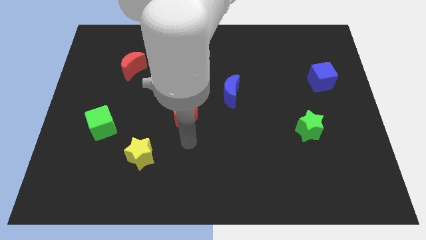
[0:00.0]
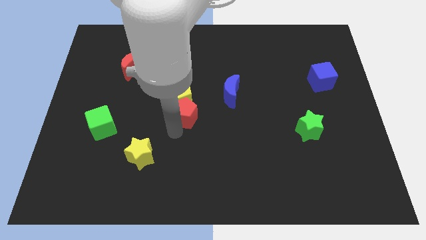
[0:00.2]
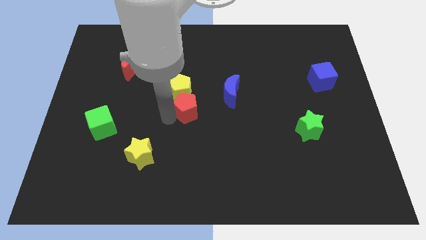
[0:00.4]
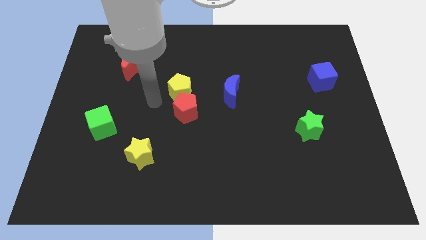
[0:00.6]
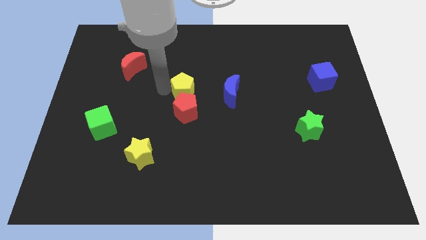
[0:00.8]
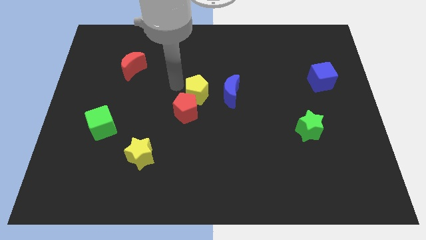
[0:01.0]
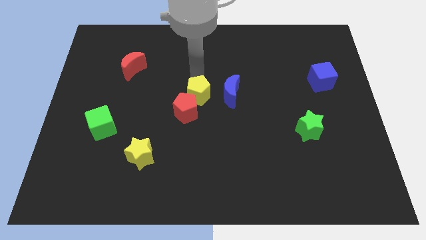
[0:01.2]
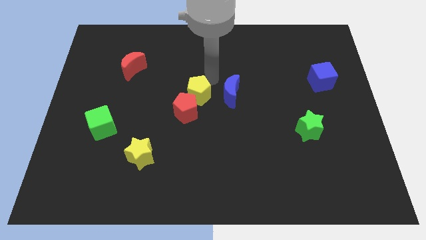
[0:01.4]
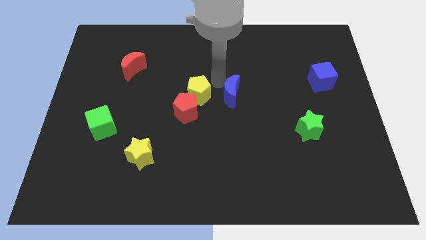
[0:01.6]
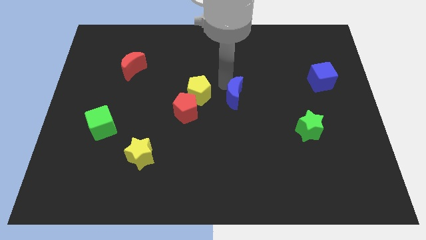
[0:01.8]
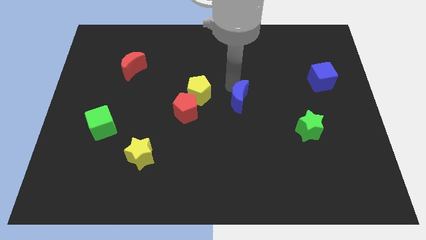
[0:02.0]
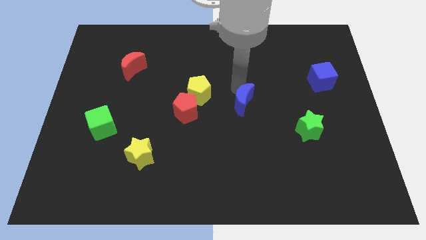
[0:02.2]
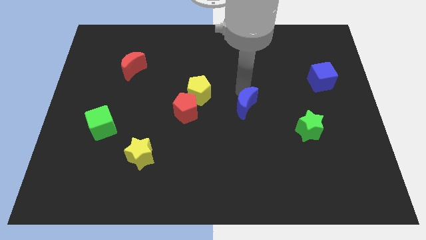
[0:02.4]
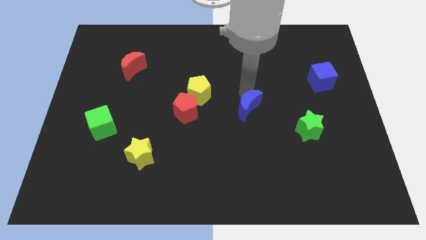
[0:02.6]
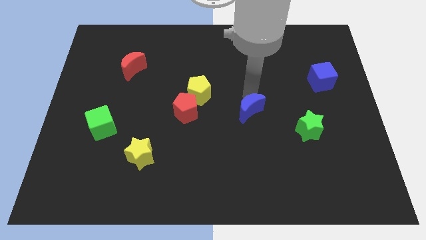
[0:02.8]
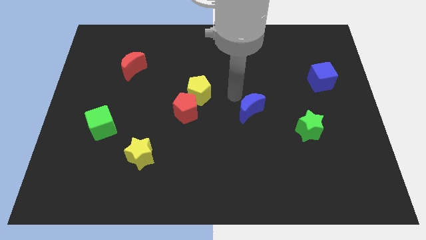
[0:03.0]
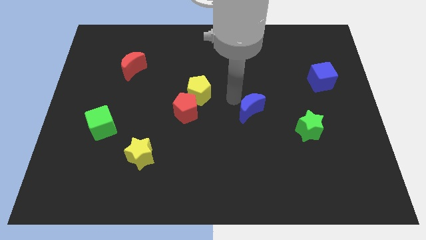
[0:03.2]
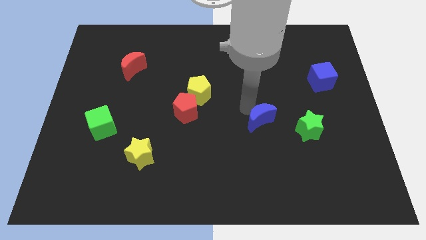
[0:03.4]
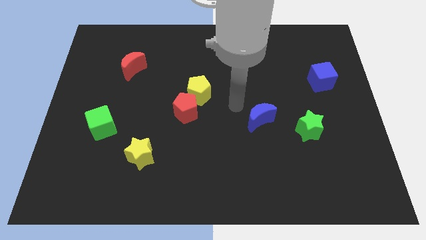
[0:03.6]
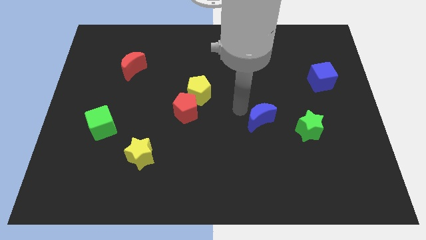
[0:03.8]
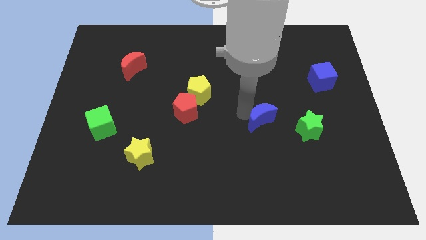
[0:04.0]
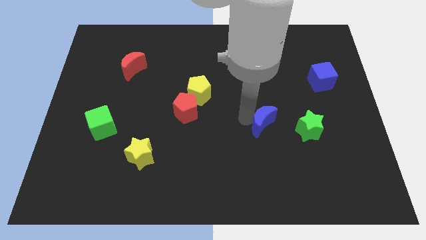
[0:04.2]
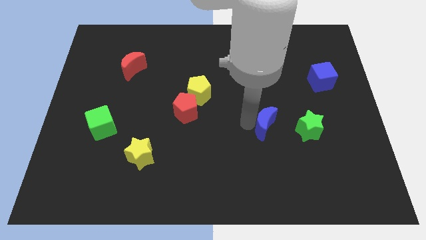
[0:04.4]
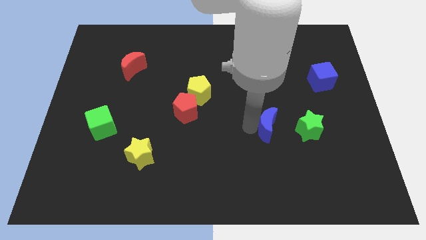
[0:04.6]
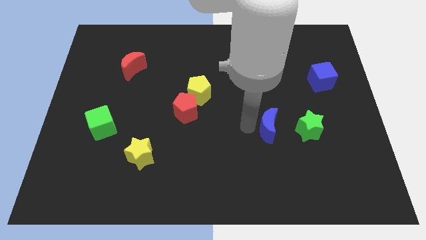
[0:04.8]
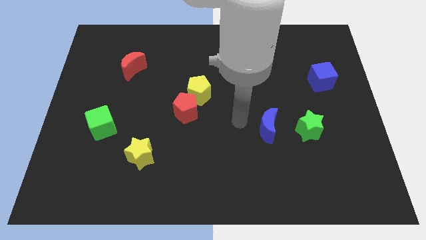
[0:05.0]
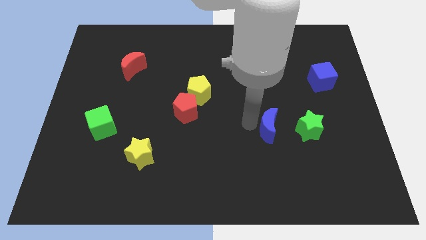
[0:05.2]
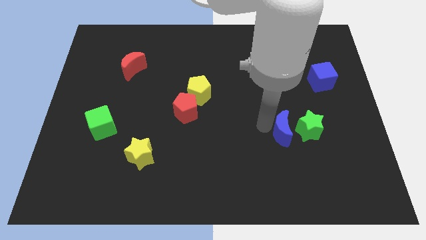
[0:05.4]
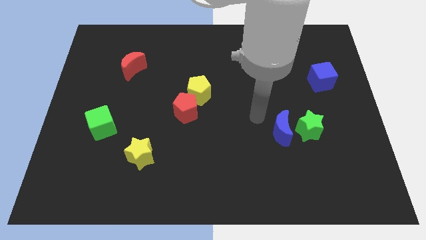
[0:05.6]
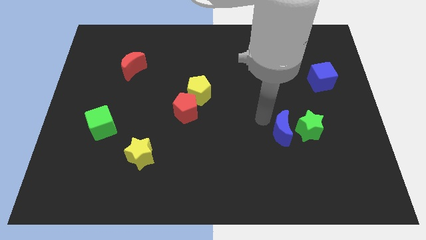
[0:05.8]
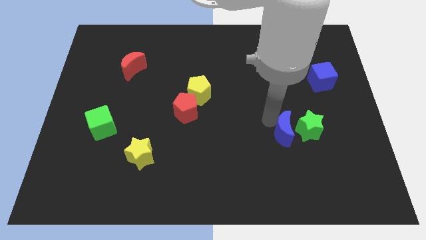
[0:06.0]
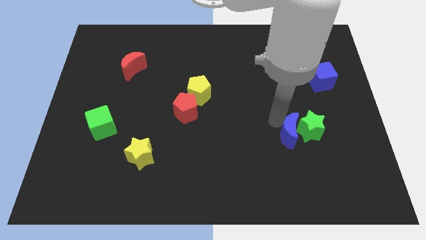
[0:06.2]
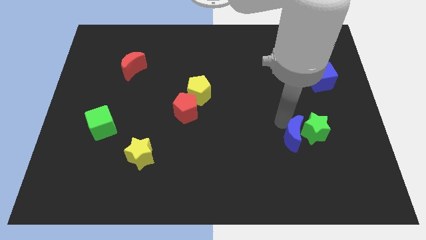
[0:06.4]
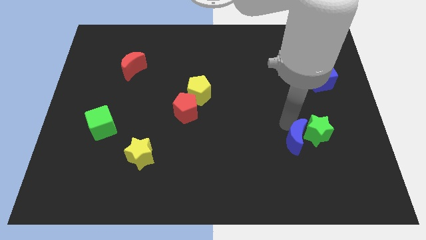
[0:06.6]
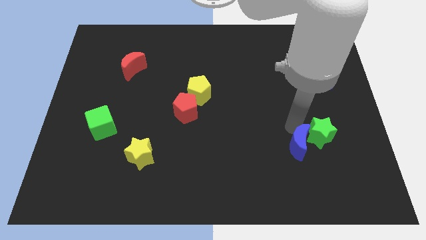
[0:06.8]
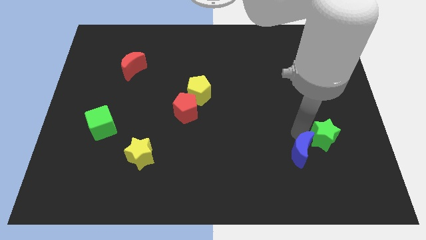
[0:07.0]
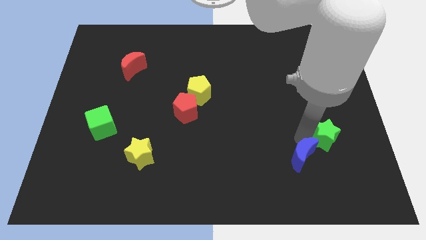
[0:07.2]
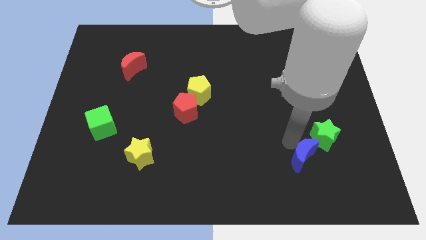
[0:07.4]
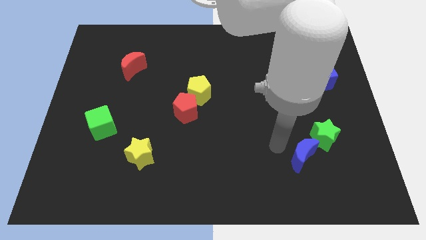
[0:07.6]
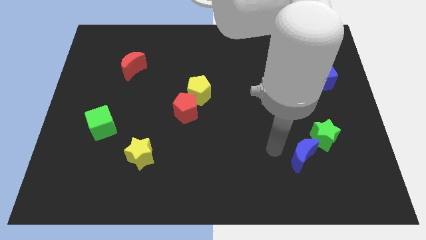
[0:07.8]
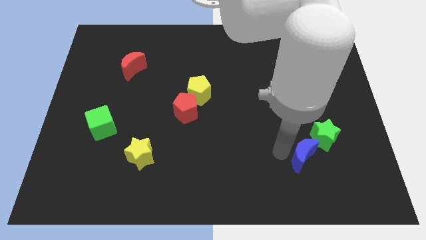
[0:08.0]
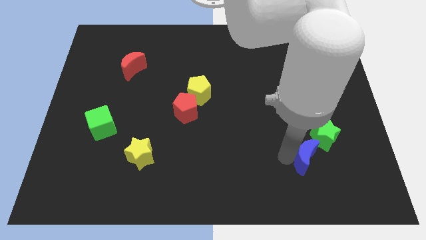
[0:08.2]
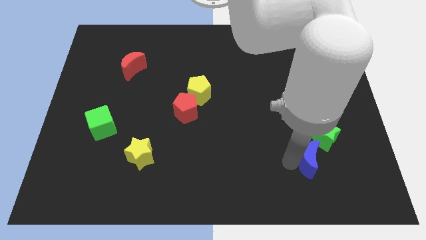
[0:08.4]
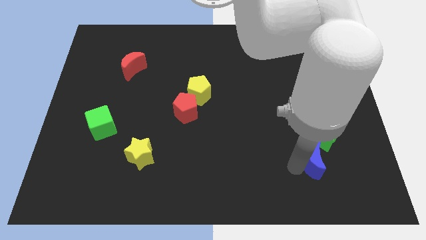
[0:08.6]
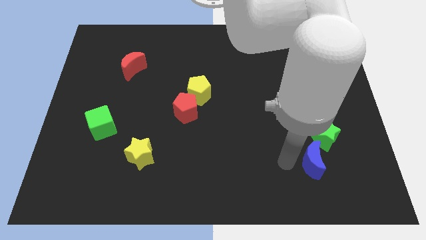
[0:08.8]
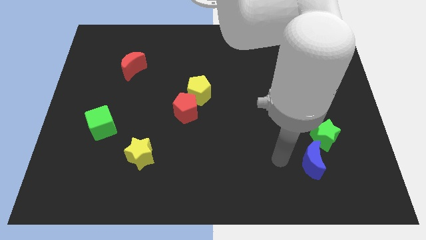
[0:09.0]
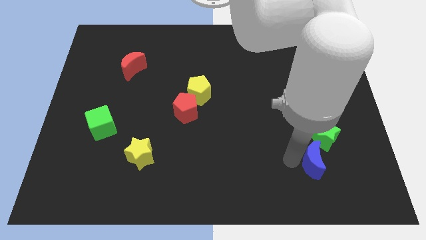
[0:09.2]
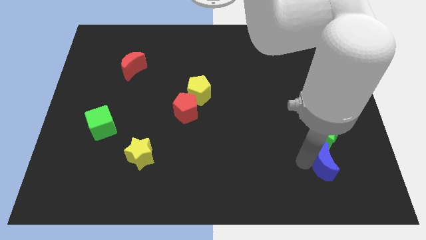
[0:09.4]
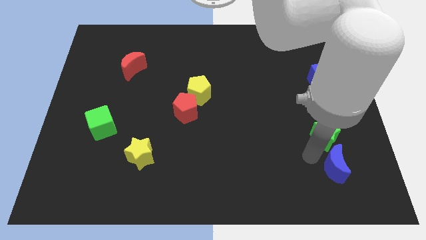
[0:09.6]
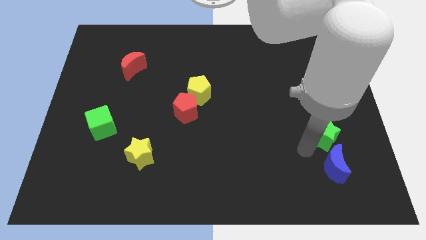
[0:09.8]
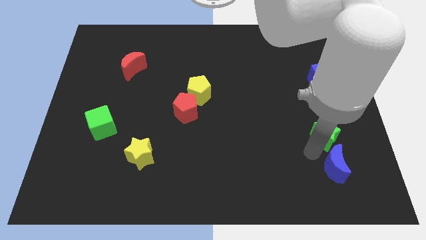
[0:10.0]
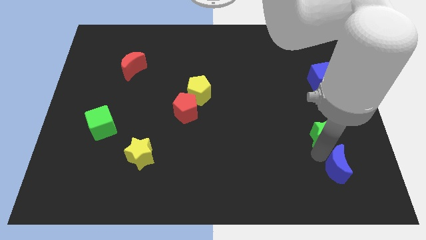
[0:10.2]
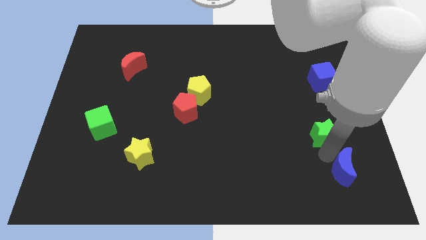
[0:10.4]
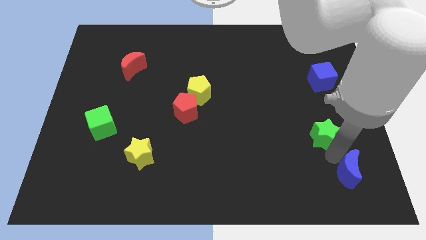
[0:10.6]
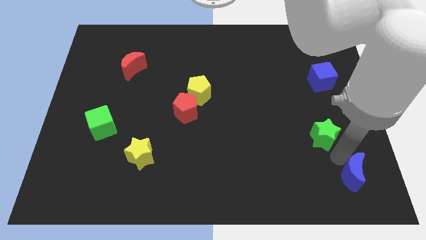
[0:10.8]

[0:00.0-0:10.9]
move the blue moon to the bottom right
